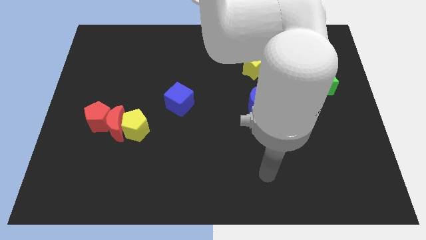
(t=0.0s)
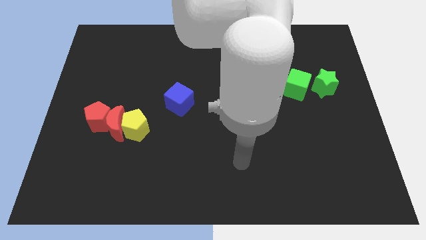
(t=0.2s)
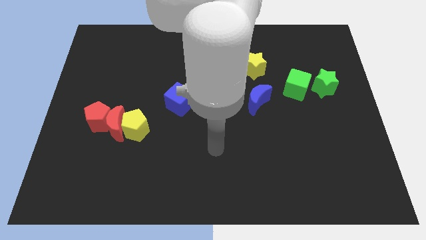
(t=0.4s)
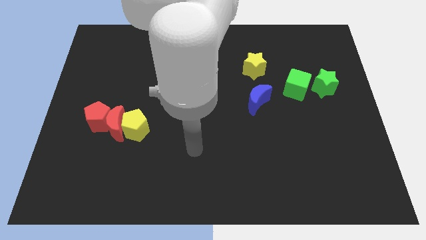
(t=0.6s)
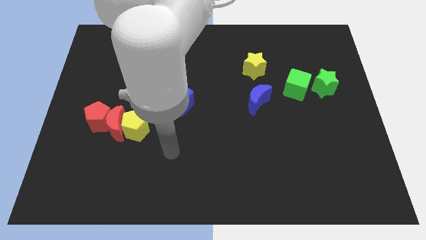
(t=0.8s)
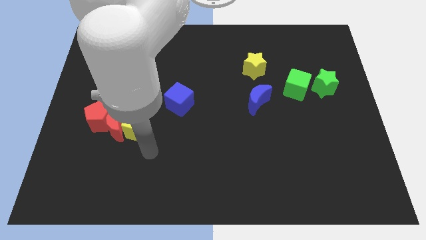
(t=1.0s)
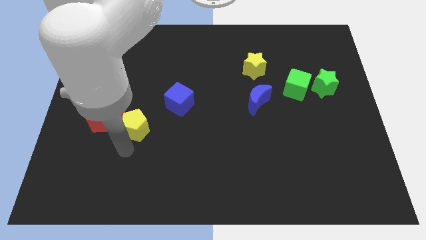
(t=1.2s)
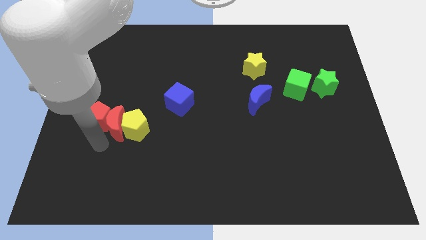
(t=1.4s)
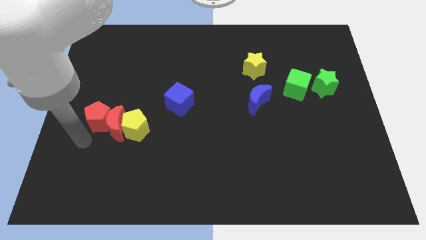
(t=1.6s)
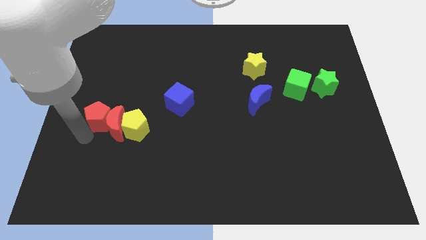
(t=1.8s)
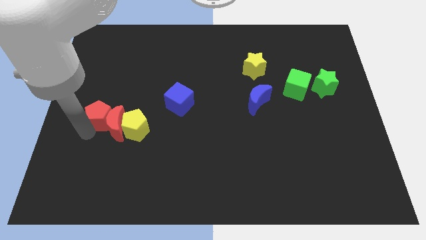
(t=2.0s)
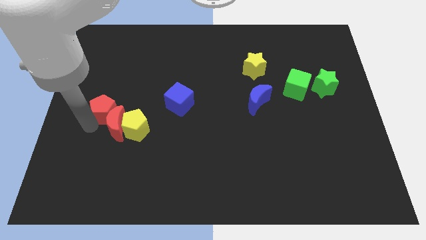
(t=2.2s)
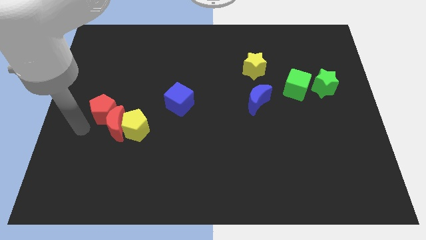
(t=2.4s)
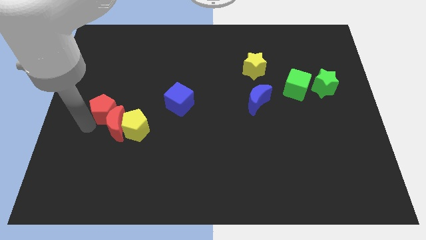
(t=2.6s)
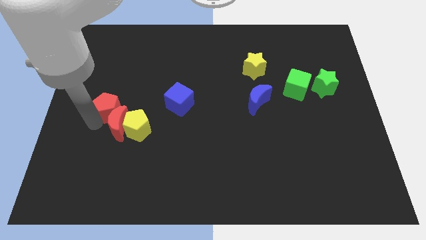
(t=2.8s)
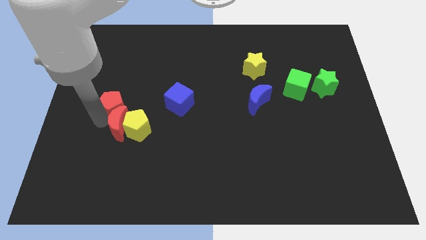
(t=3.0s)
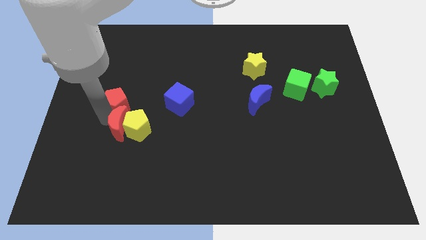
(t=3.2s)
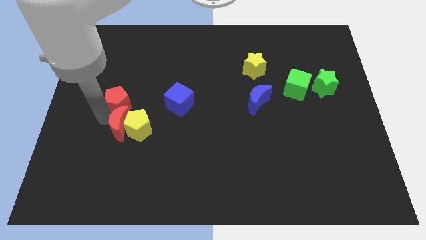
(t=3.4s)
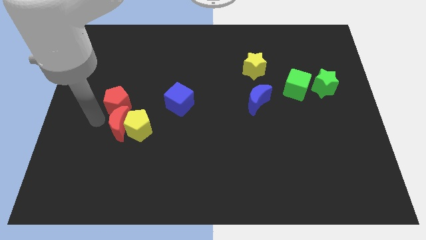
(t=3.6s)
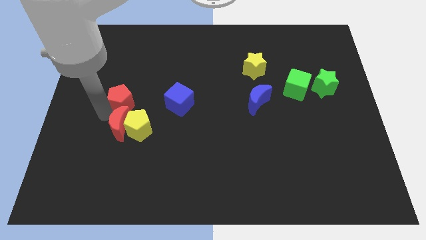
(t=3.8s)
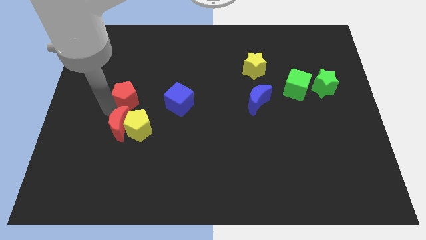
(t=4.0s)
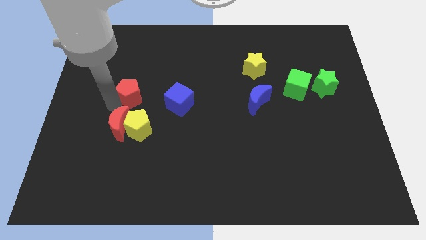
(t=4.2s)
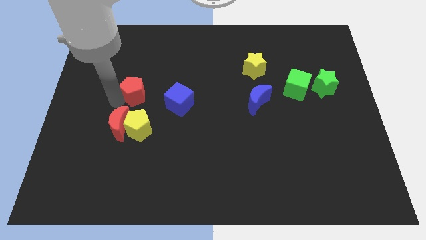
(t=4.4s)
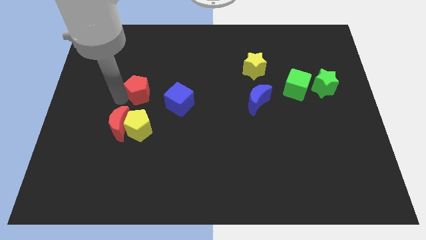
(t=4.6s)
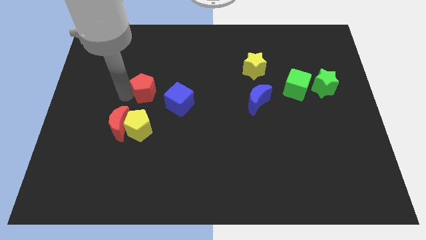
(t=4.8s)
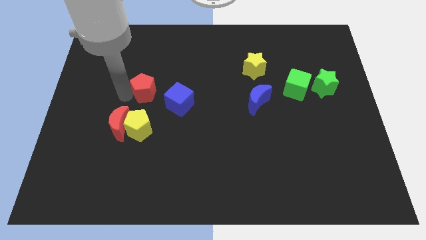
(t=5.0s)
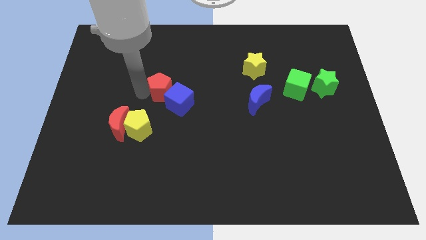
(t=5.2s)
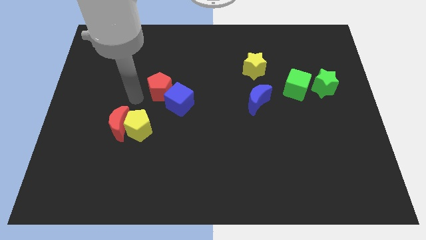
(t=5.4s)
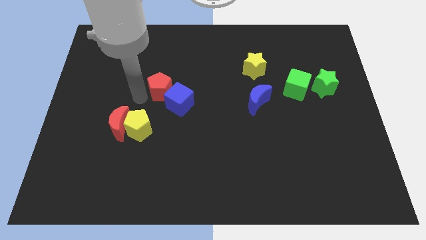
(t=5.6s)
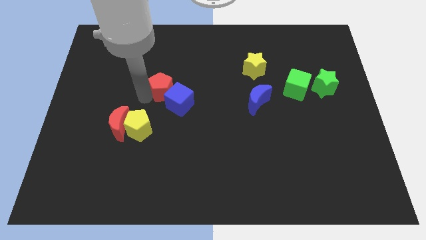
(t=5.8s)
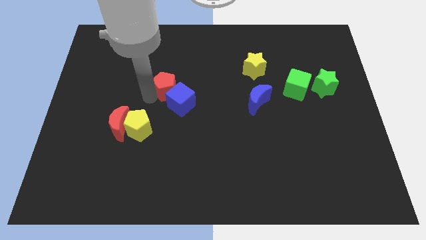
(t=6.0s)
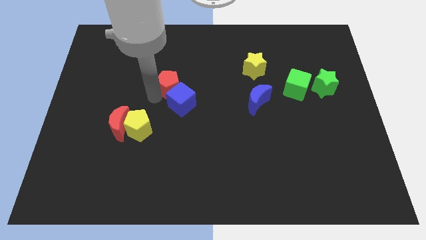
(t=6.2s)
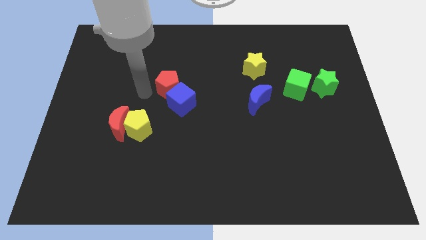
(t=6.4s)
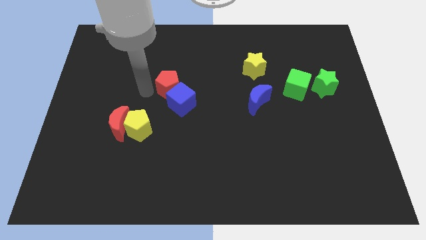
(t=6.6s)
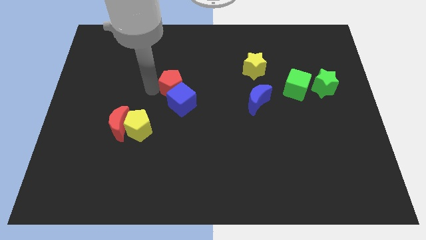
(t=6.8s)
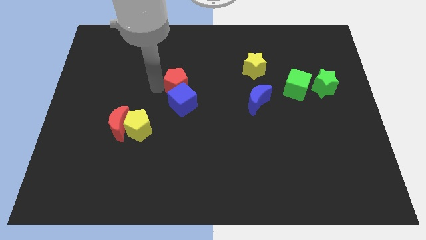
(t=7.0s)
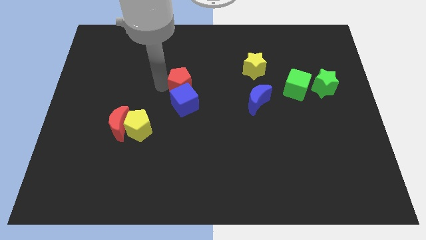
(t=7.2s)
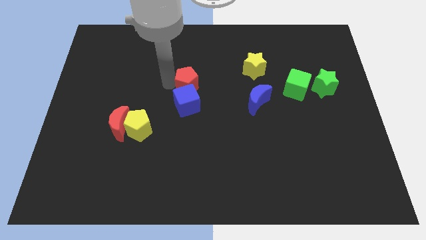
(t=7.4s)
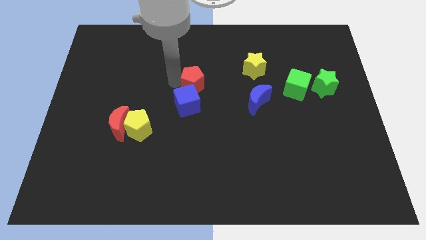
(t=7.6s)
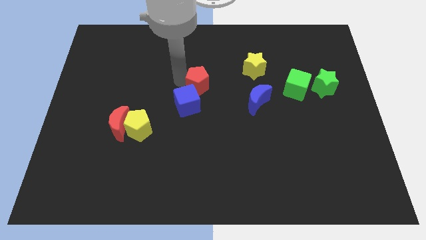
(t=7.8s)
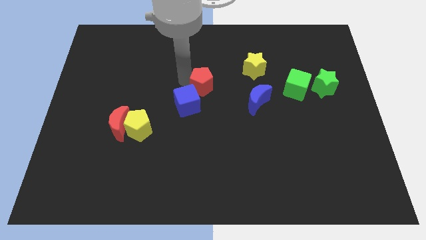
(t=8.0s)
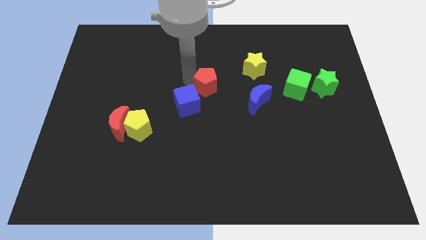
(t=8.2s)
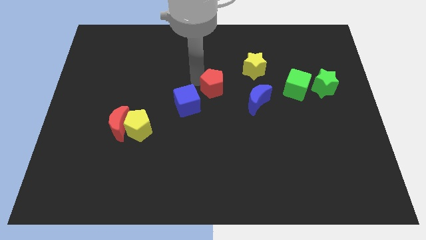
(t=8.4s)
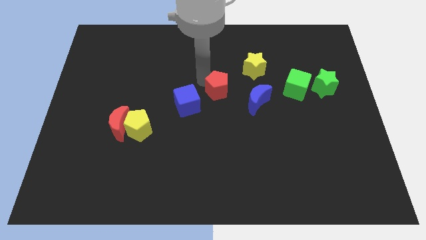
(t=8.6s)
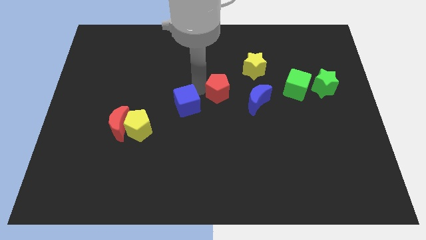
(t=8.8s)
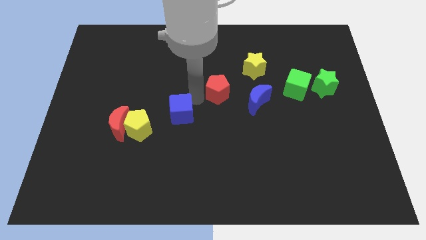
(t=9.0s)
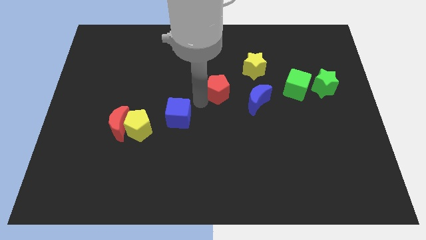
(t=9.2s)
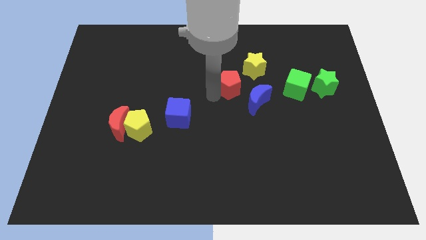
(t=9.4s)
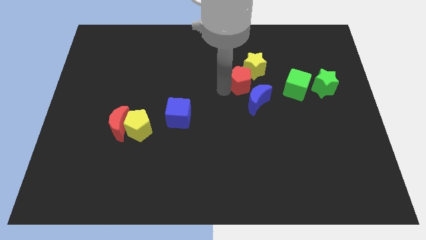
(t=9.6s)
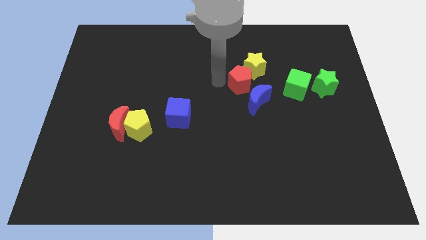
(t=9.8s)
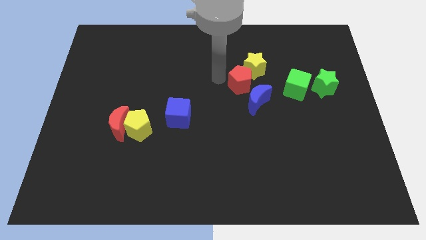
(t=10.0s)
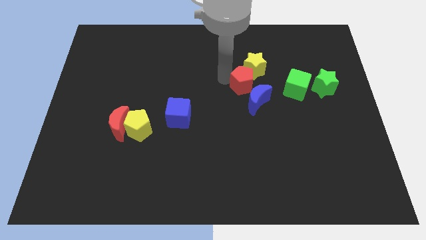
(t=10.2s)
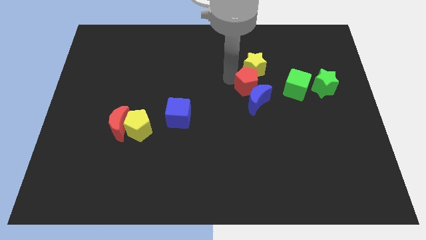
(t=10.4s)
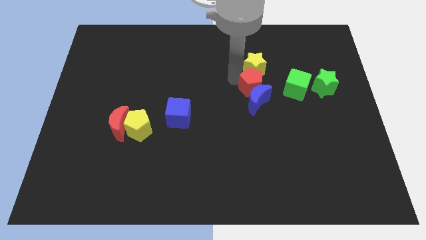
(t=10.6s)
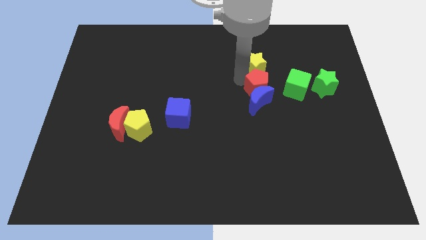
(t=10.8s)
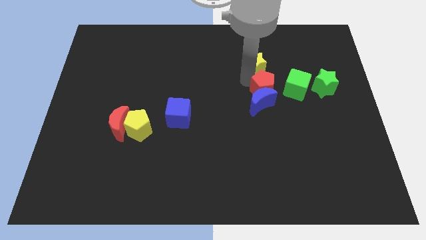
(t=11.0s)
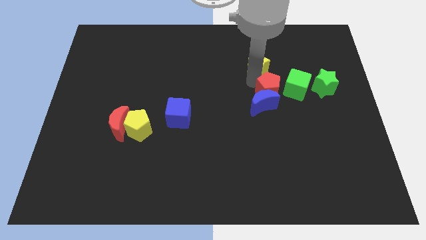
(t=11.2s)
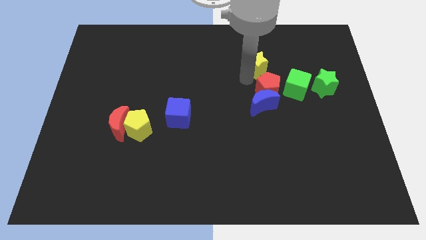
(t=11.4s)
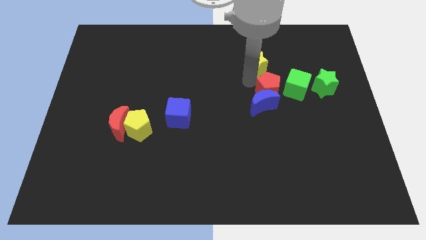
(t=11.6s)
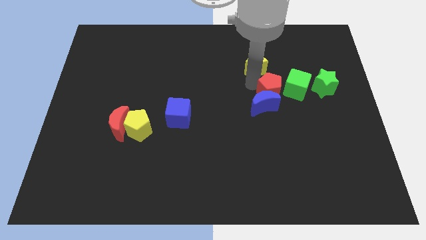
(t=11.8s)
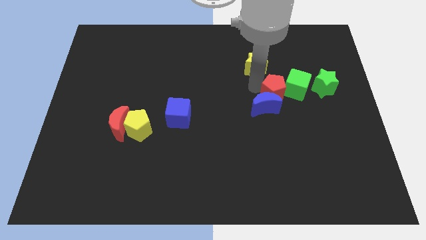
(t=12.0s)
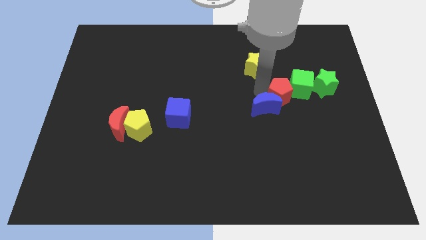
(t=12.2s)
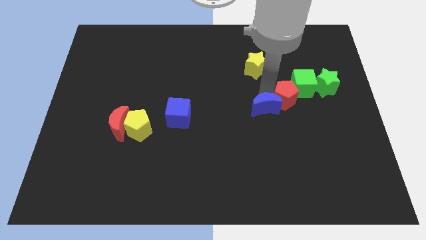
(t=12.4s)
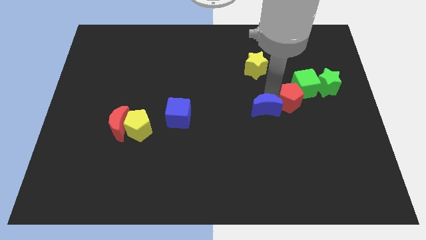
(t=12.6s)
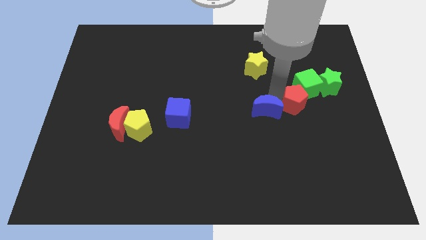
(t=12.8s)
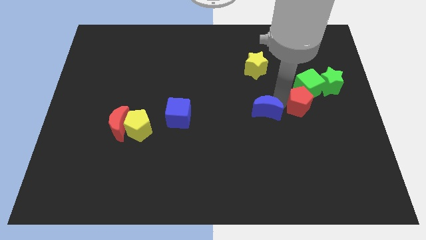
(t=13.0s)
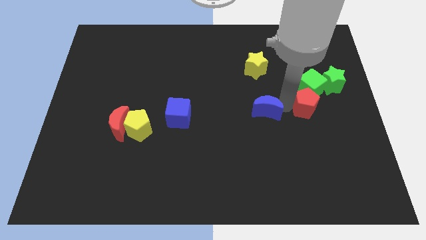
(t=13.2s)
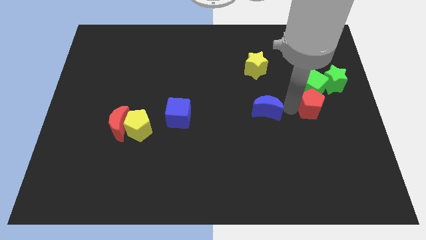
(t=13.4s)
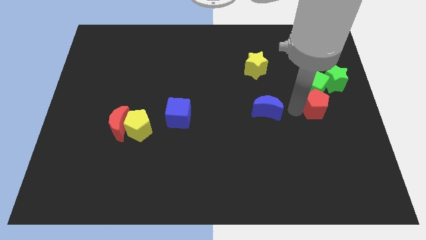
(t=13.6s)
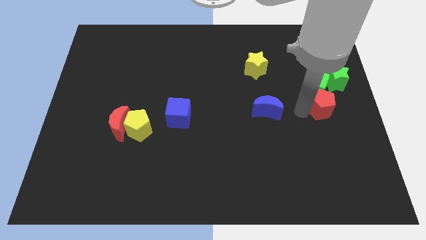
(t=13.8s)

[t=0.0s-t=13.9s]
slide the red pentagon to the right side of the board
